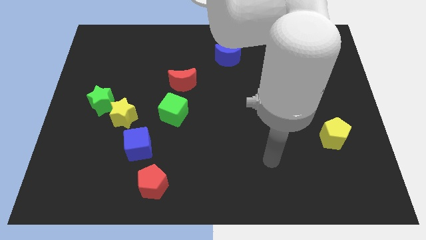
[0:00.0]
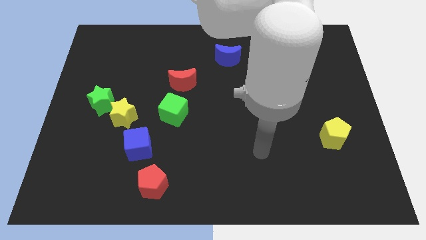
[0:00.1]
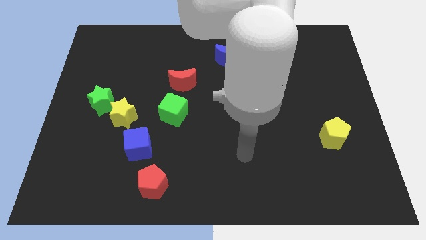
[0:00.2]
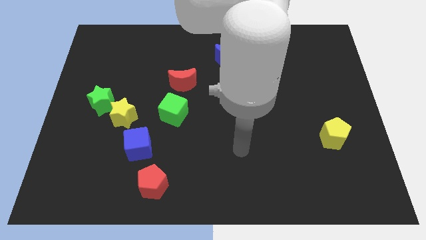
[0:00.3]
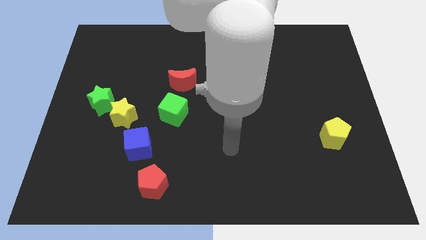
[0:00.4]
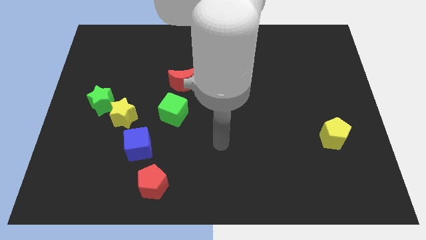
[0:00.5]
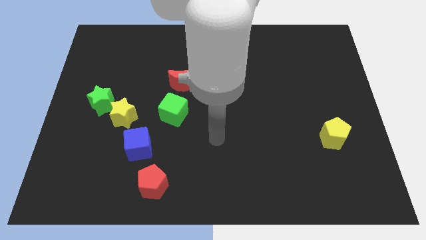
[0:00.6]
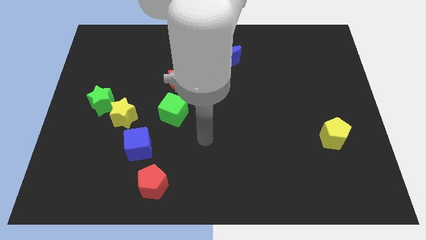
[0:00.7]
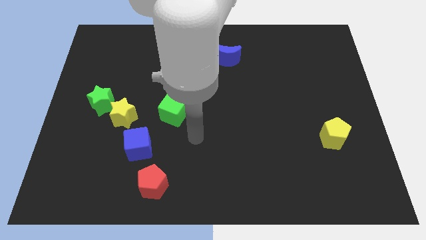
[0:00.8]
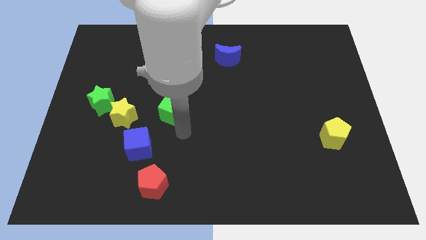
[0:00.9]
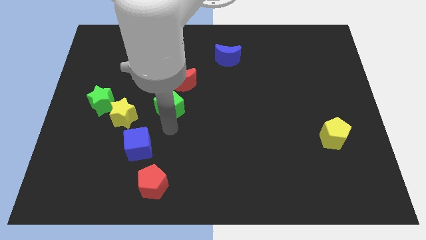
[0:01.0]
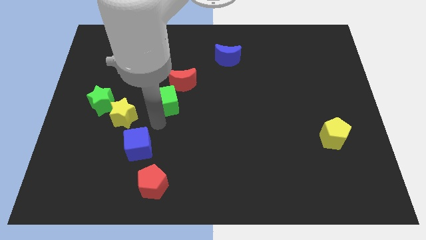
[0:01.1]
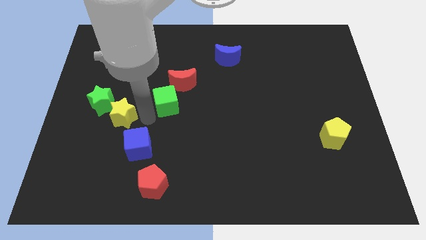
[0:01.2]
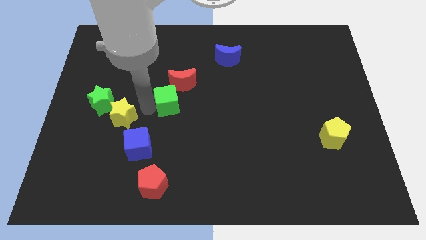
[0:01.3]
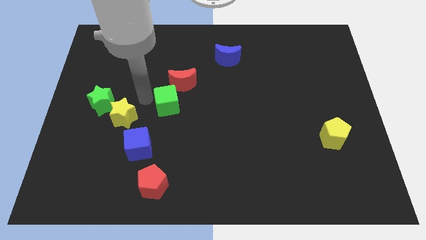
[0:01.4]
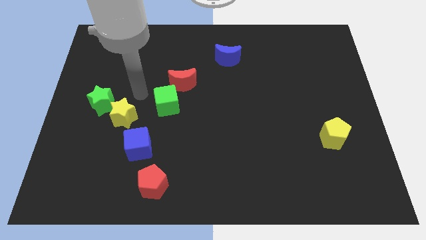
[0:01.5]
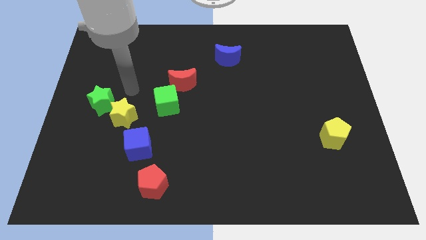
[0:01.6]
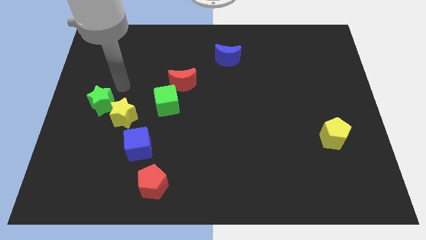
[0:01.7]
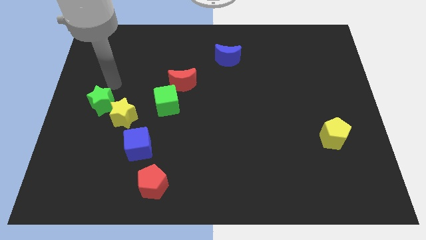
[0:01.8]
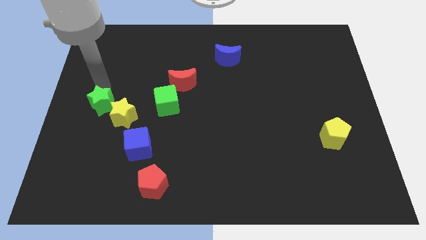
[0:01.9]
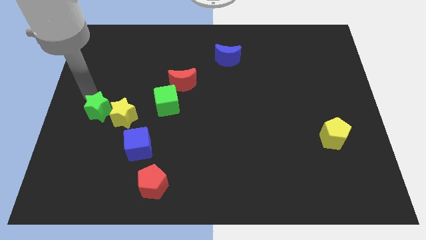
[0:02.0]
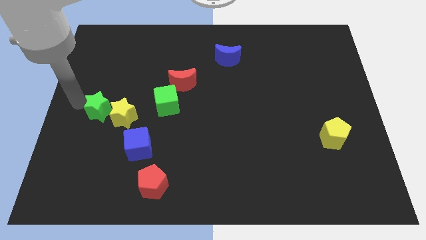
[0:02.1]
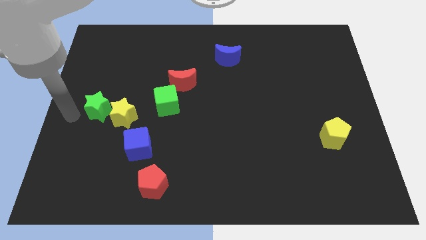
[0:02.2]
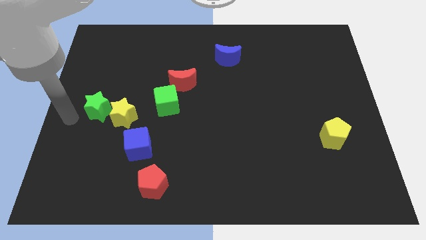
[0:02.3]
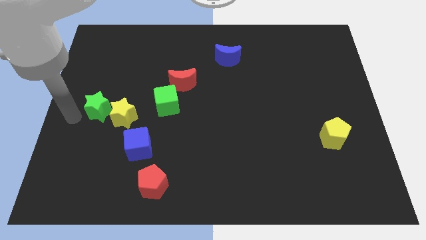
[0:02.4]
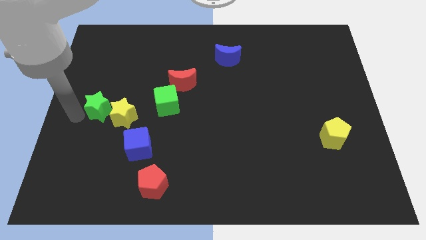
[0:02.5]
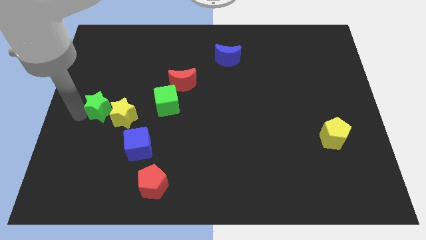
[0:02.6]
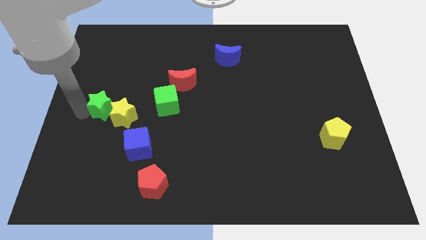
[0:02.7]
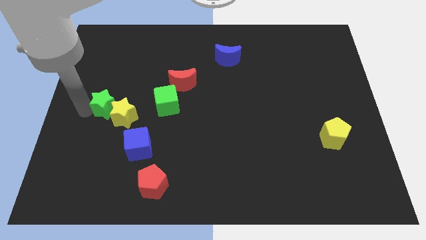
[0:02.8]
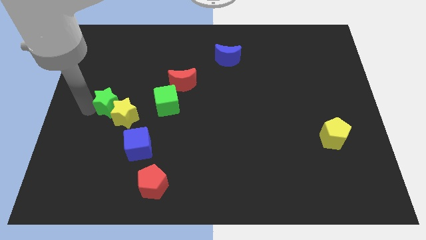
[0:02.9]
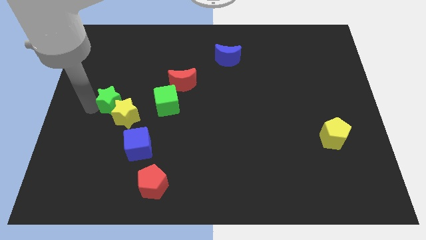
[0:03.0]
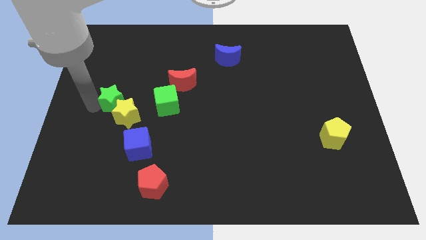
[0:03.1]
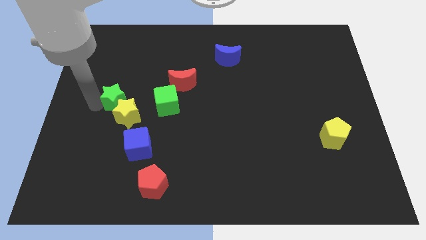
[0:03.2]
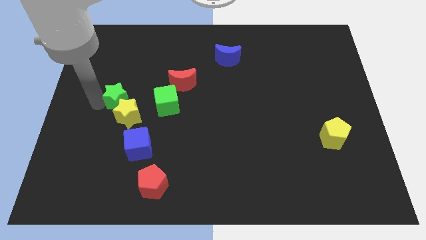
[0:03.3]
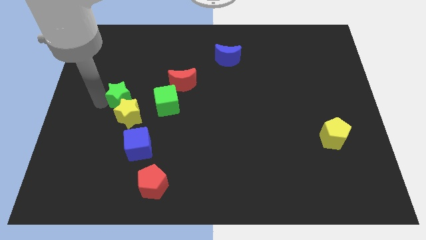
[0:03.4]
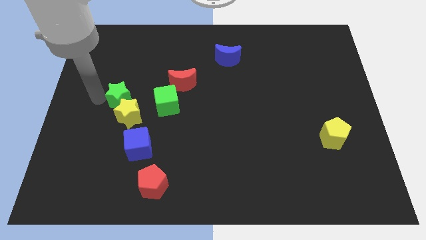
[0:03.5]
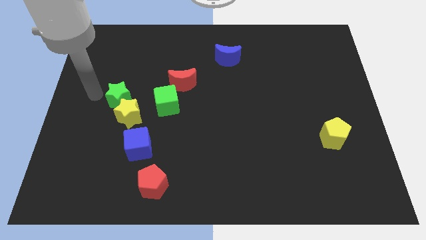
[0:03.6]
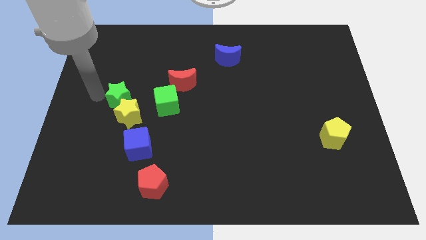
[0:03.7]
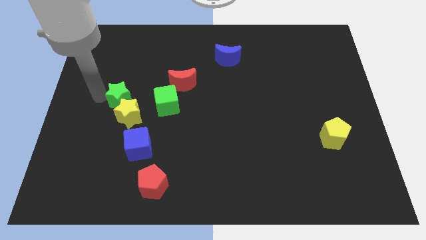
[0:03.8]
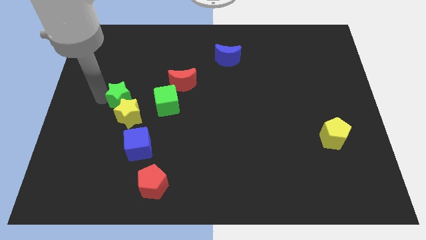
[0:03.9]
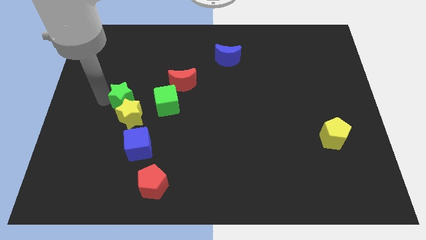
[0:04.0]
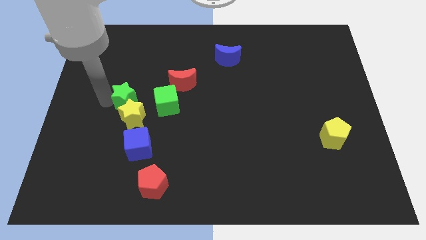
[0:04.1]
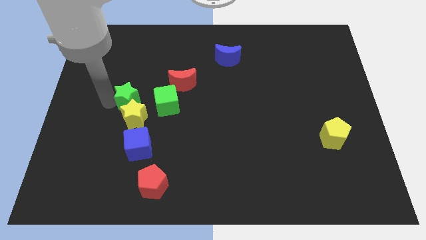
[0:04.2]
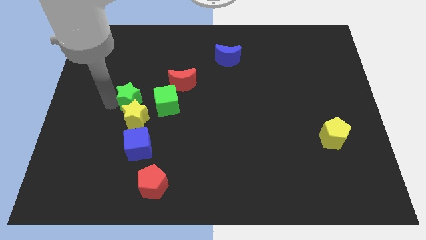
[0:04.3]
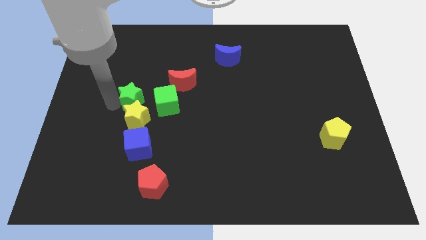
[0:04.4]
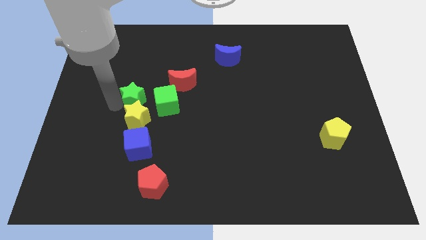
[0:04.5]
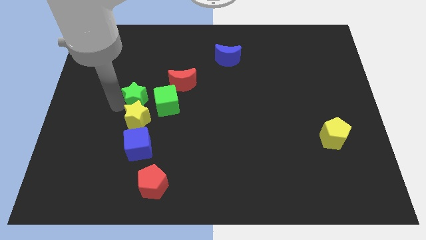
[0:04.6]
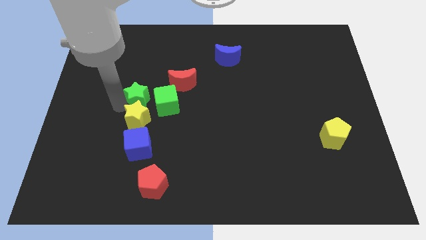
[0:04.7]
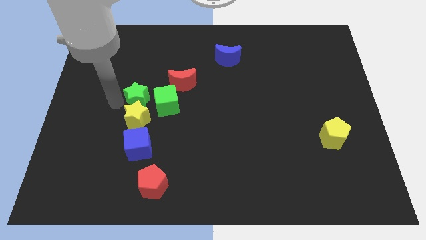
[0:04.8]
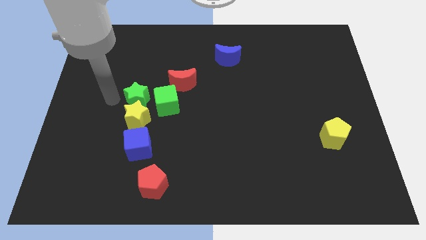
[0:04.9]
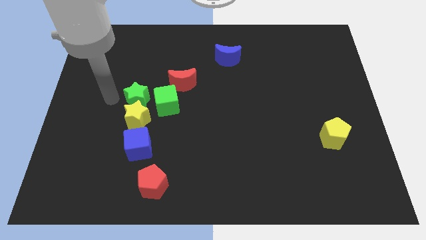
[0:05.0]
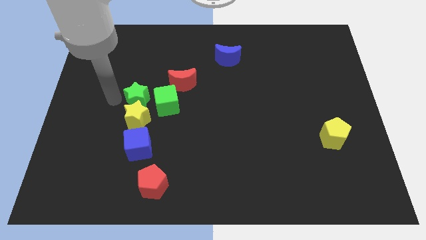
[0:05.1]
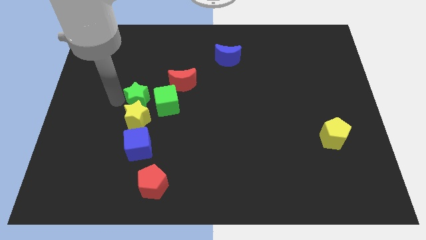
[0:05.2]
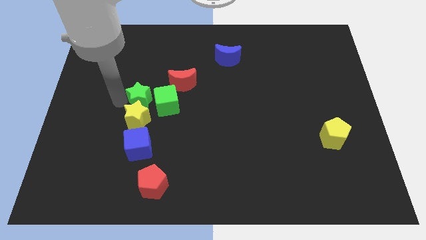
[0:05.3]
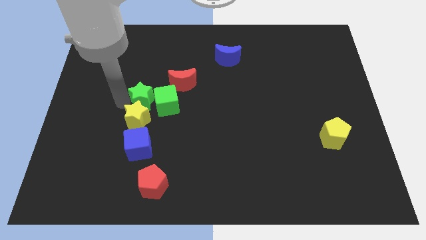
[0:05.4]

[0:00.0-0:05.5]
put the green star to the green cube

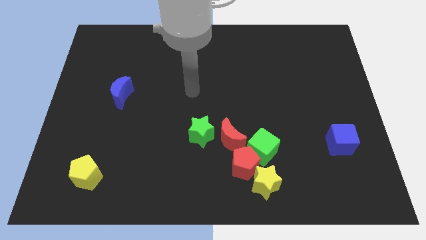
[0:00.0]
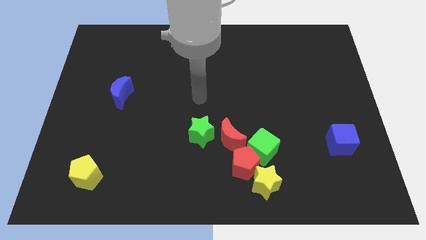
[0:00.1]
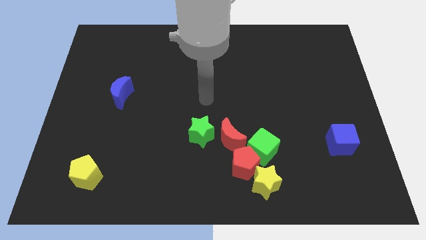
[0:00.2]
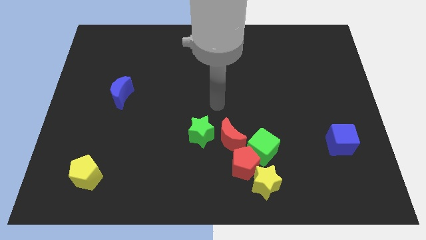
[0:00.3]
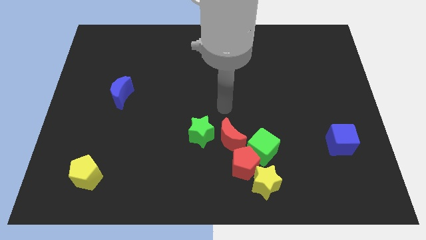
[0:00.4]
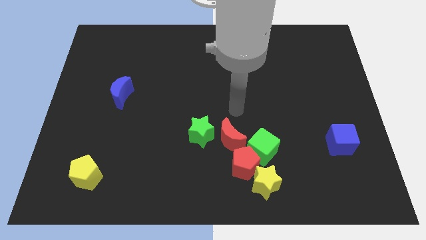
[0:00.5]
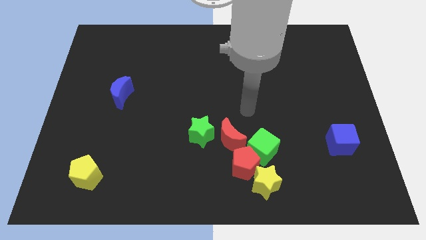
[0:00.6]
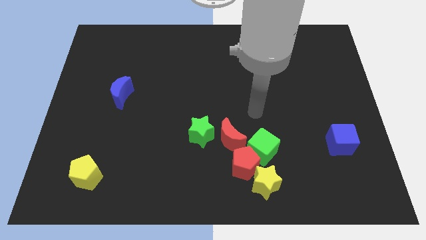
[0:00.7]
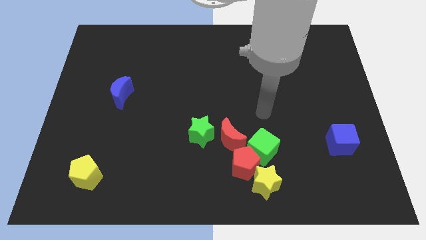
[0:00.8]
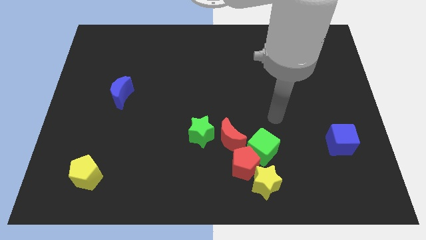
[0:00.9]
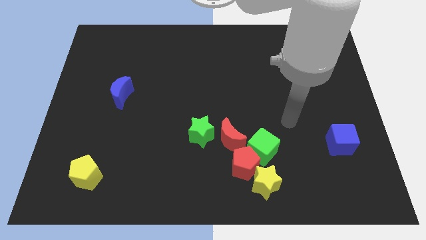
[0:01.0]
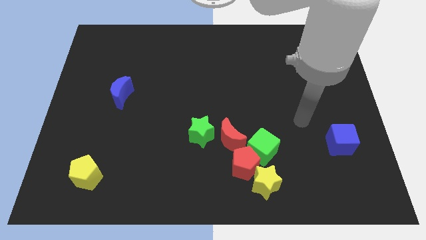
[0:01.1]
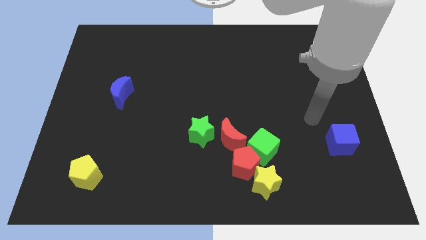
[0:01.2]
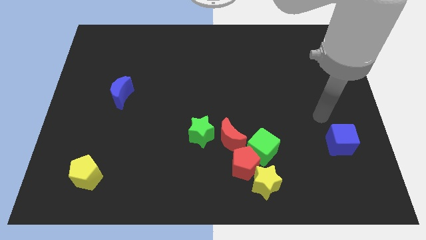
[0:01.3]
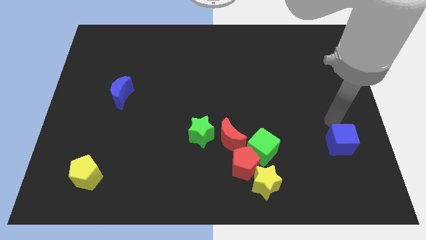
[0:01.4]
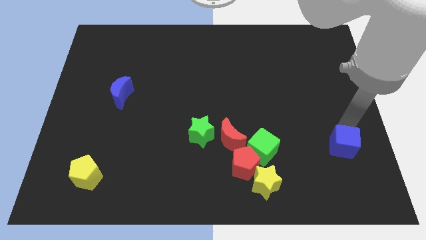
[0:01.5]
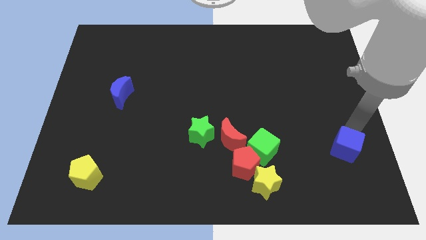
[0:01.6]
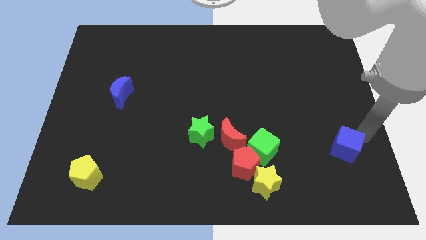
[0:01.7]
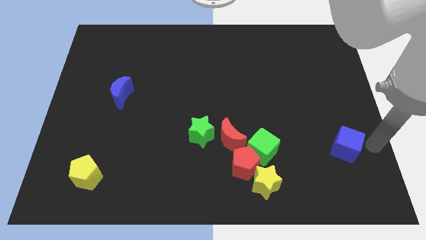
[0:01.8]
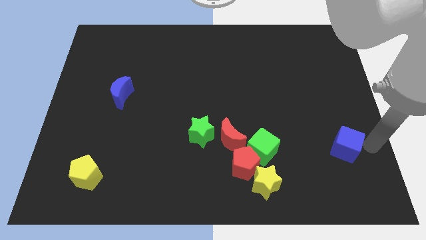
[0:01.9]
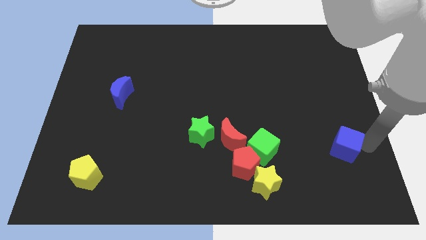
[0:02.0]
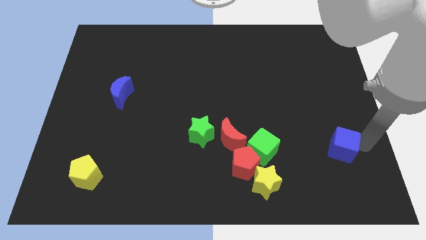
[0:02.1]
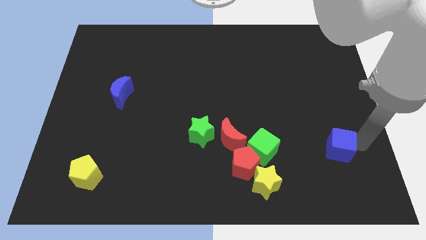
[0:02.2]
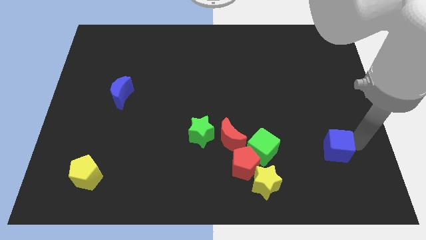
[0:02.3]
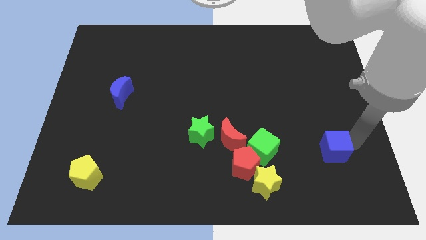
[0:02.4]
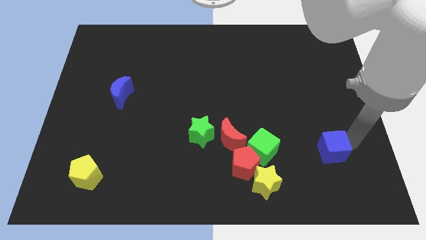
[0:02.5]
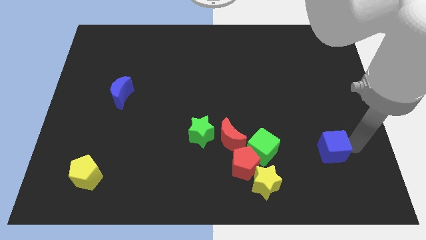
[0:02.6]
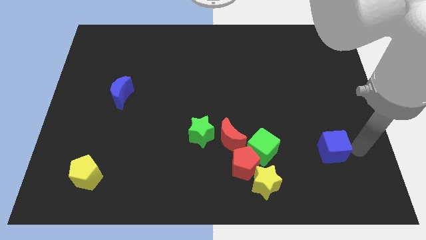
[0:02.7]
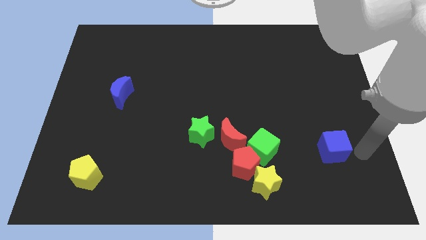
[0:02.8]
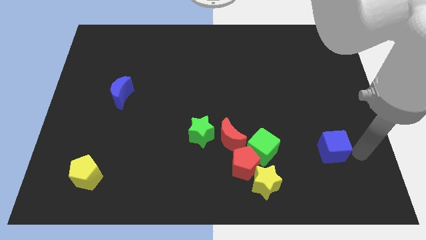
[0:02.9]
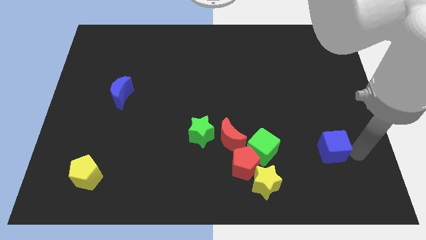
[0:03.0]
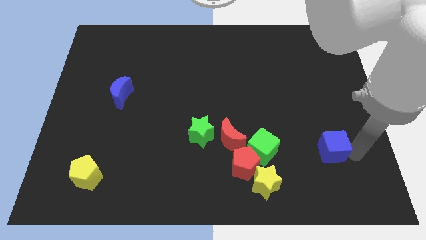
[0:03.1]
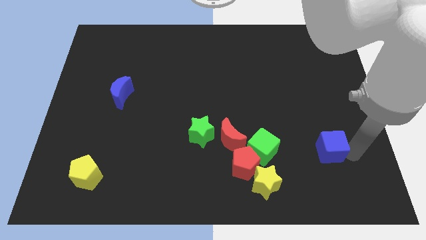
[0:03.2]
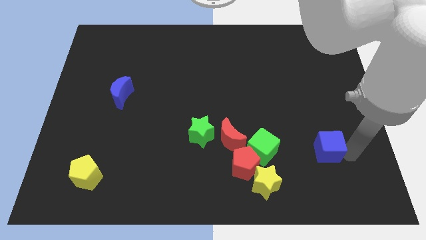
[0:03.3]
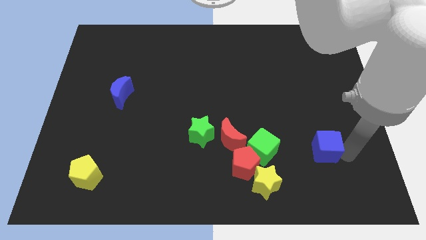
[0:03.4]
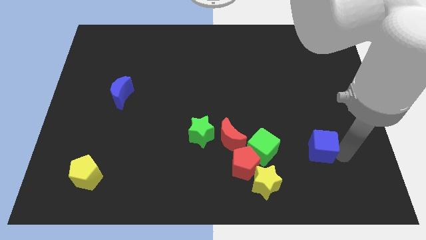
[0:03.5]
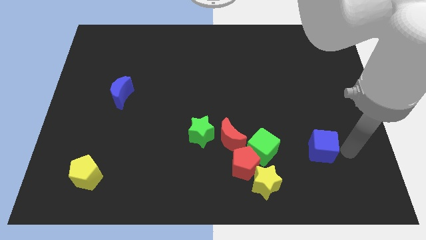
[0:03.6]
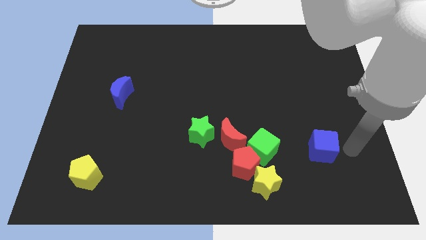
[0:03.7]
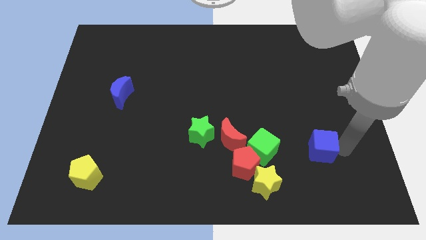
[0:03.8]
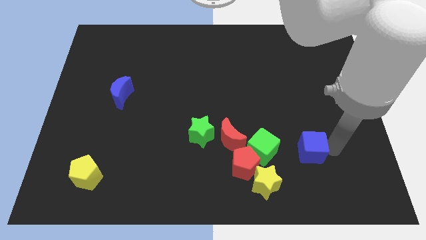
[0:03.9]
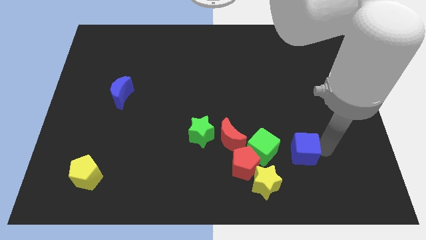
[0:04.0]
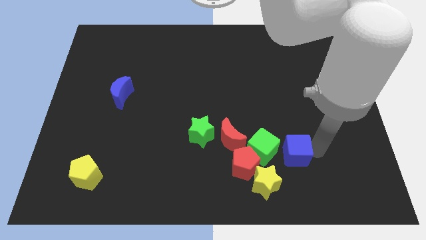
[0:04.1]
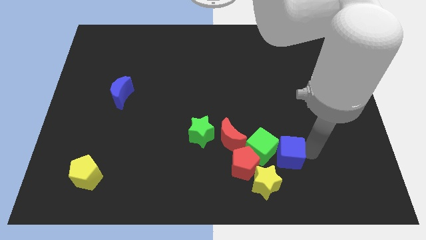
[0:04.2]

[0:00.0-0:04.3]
push the blue cube next to the green cube
